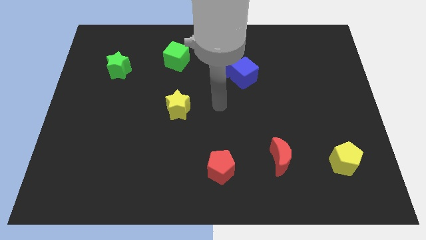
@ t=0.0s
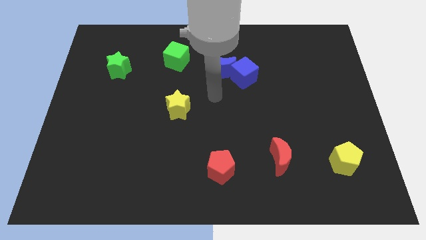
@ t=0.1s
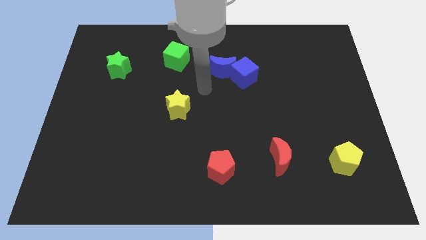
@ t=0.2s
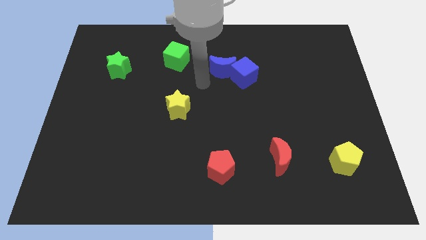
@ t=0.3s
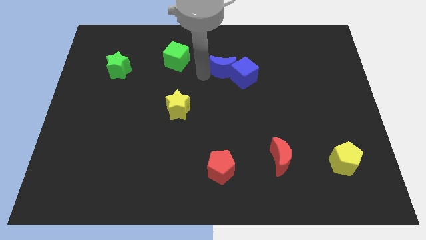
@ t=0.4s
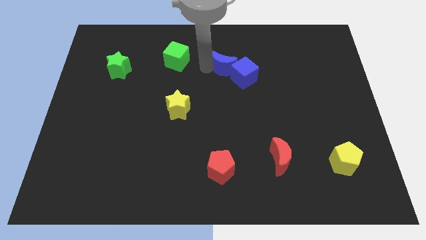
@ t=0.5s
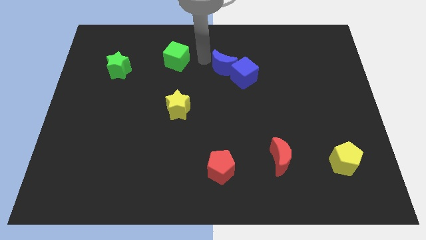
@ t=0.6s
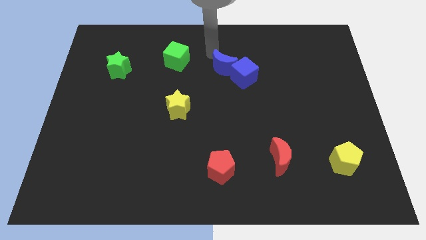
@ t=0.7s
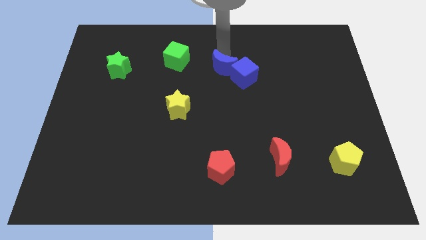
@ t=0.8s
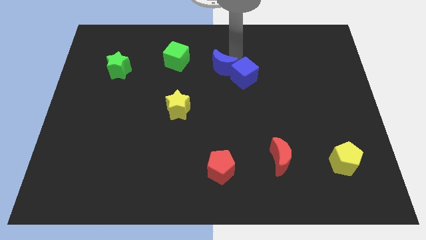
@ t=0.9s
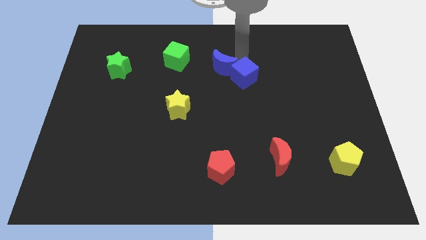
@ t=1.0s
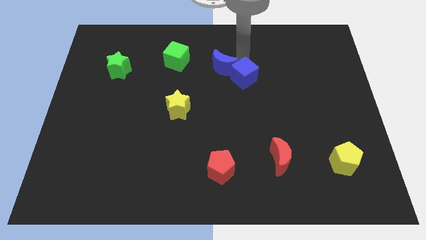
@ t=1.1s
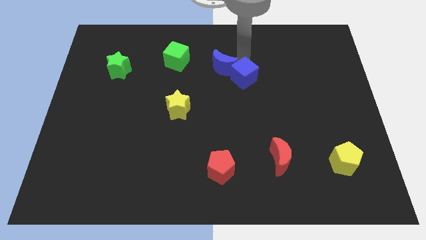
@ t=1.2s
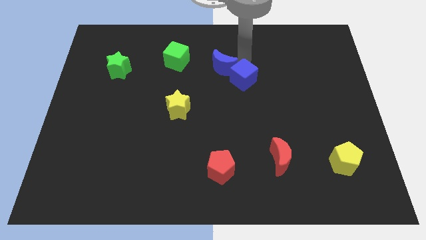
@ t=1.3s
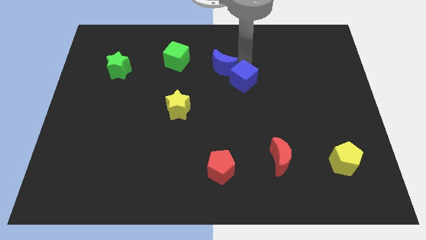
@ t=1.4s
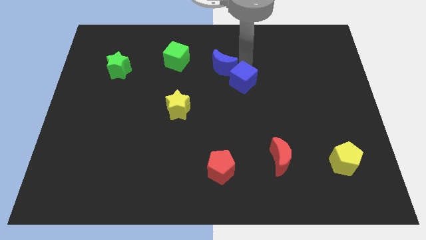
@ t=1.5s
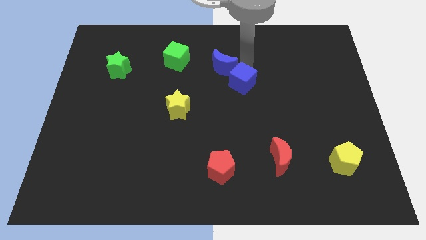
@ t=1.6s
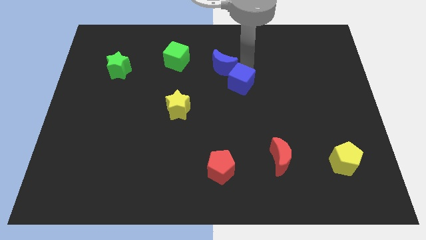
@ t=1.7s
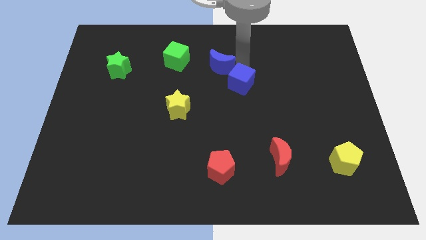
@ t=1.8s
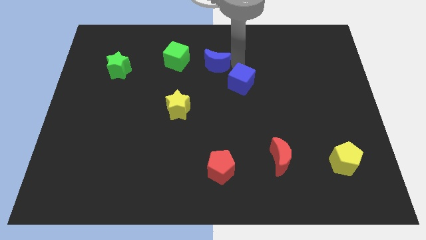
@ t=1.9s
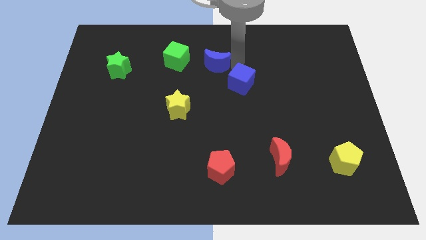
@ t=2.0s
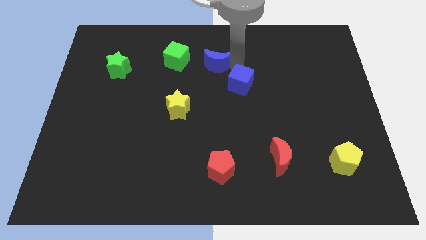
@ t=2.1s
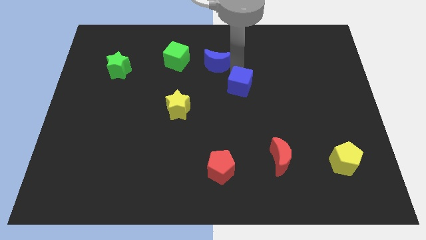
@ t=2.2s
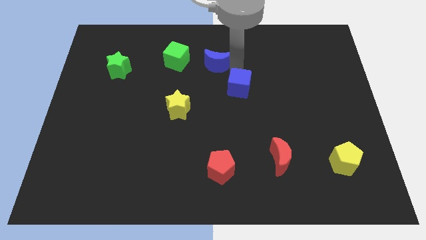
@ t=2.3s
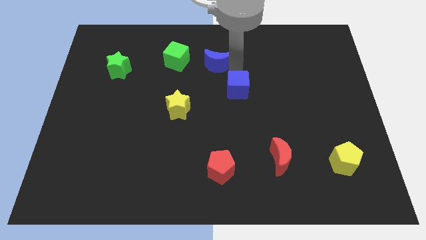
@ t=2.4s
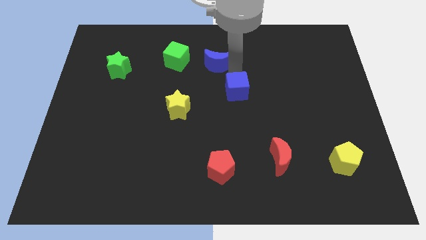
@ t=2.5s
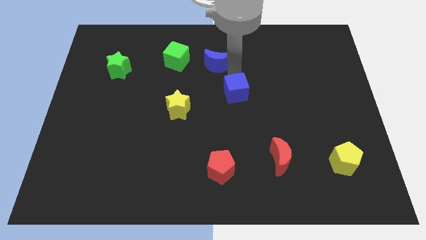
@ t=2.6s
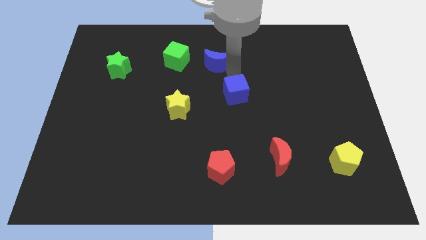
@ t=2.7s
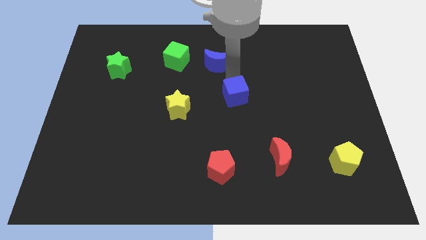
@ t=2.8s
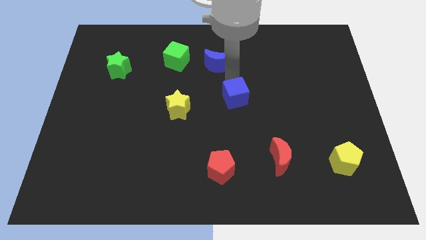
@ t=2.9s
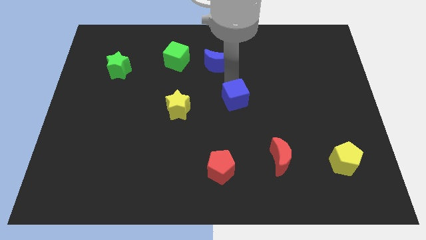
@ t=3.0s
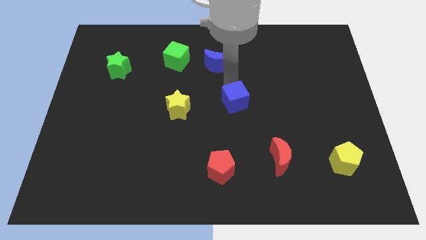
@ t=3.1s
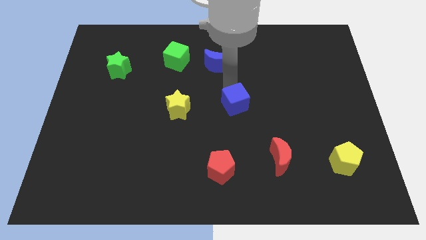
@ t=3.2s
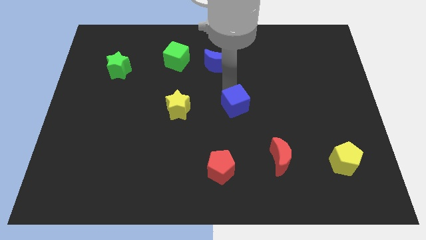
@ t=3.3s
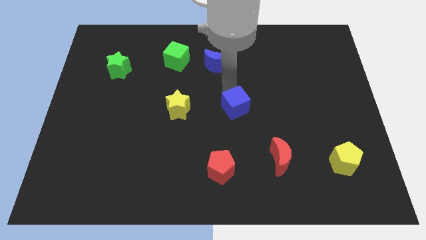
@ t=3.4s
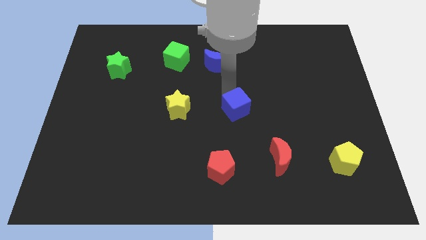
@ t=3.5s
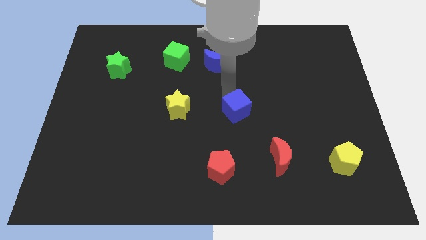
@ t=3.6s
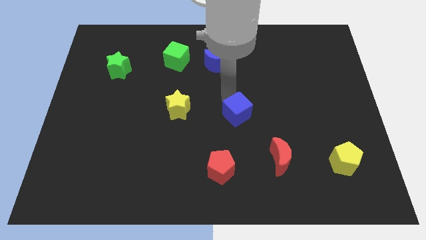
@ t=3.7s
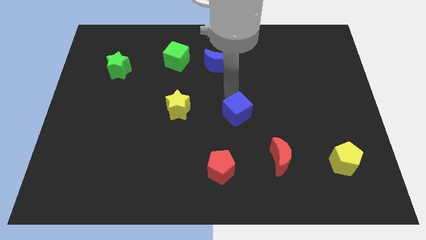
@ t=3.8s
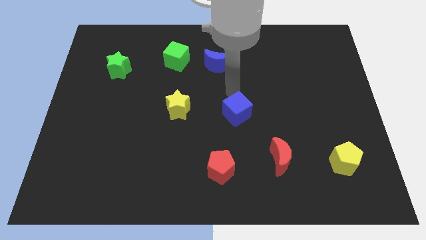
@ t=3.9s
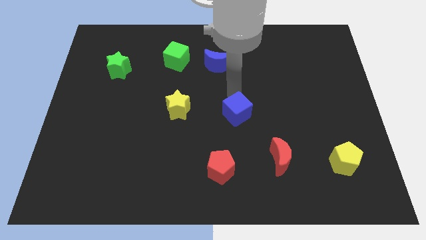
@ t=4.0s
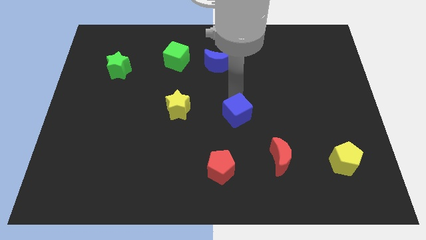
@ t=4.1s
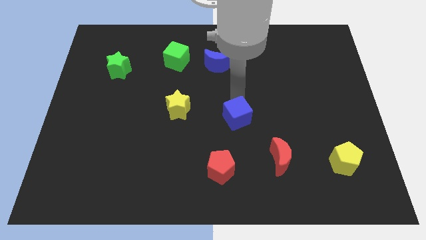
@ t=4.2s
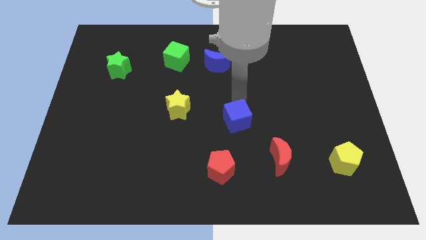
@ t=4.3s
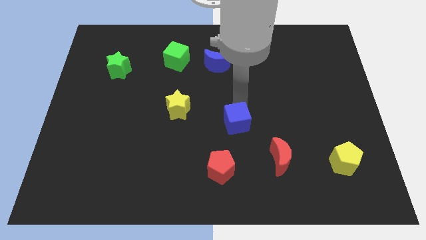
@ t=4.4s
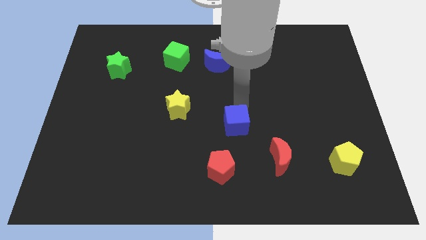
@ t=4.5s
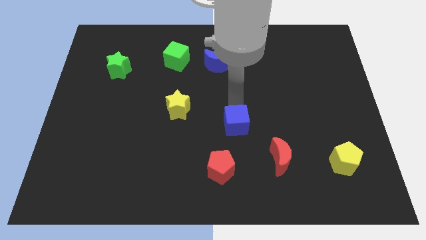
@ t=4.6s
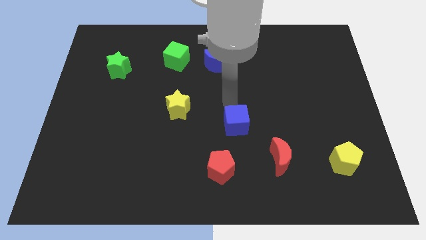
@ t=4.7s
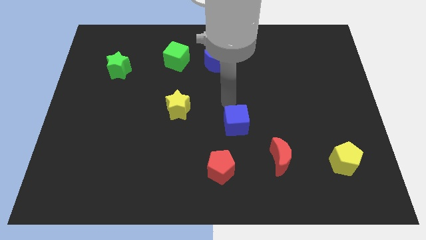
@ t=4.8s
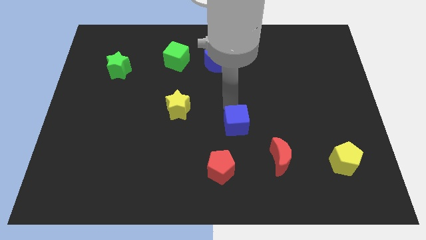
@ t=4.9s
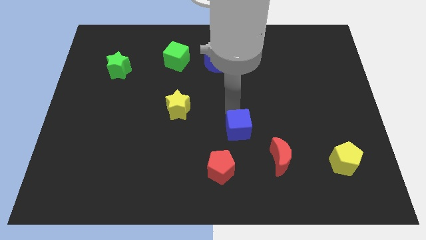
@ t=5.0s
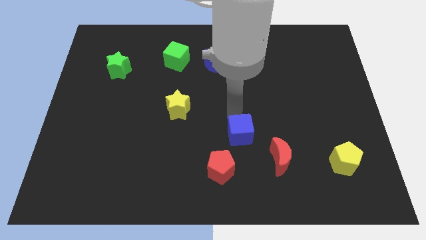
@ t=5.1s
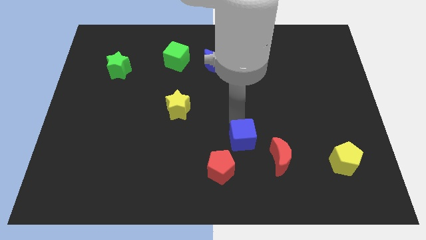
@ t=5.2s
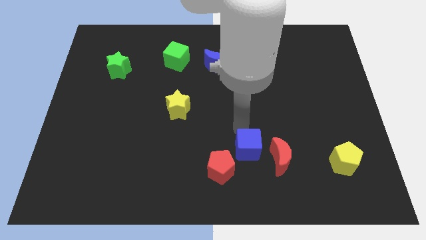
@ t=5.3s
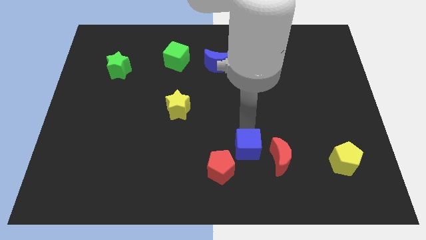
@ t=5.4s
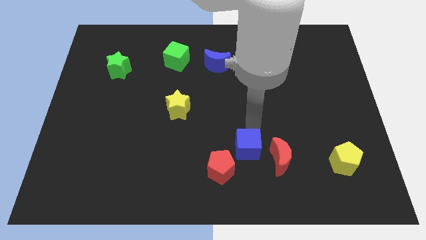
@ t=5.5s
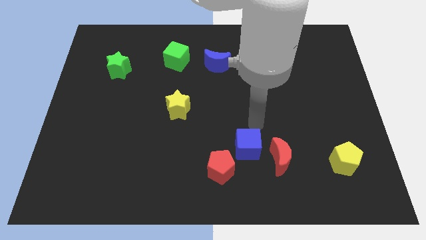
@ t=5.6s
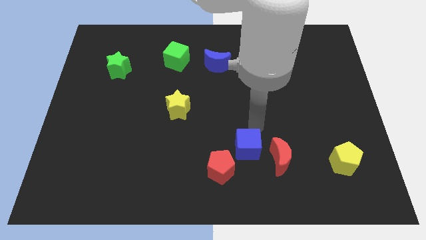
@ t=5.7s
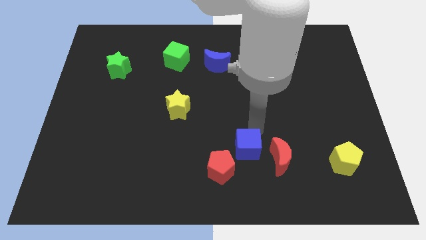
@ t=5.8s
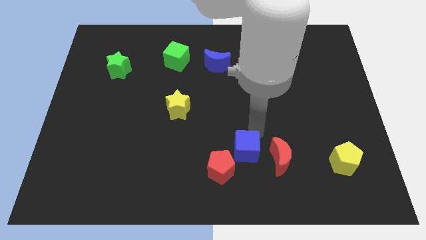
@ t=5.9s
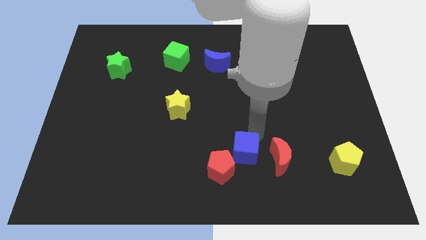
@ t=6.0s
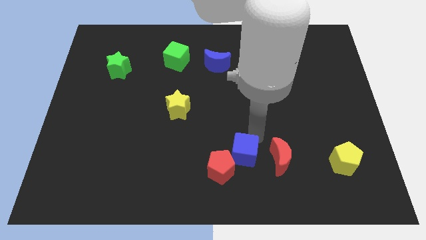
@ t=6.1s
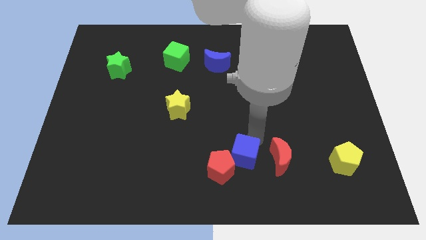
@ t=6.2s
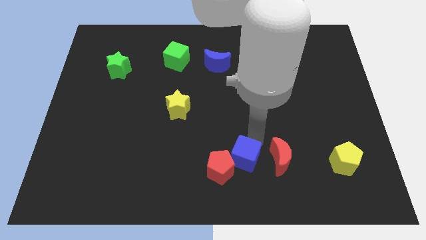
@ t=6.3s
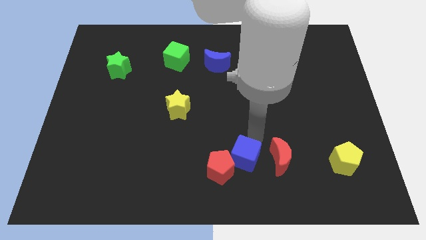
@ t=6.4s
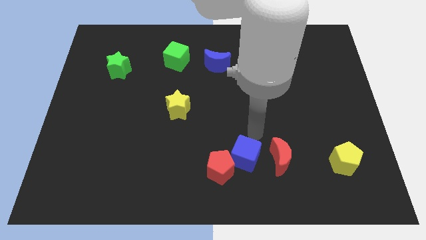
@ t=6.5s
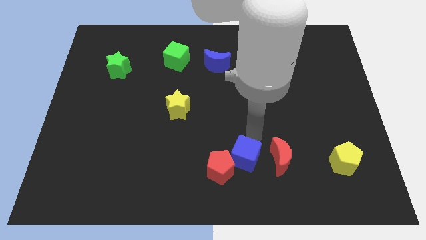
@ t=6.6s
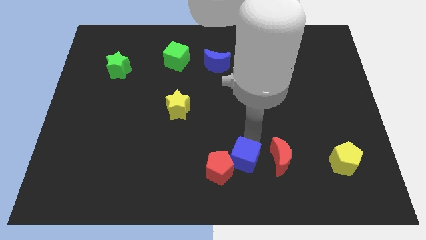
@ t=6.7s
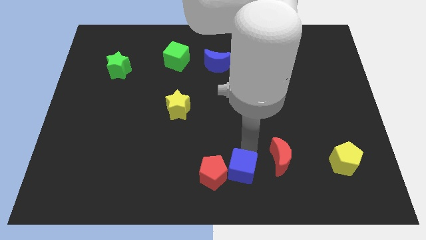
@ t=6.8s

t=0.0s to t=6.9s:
slide the blue cube to the bottom
